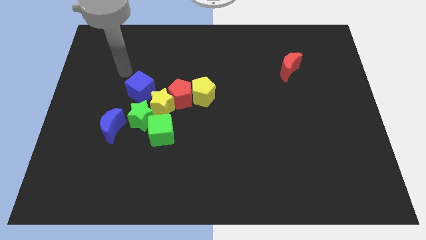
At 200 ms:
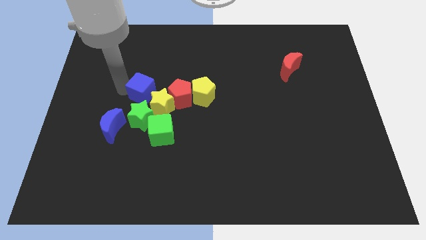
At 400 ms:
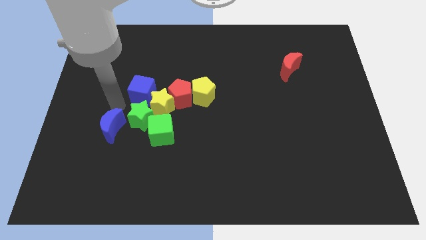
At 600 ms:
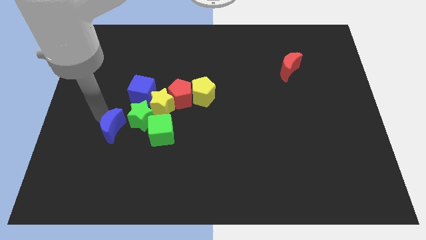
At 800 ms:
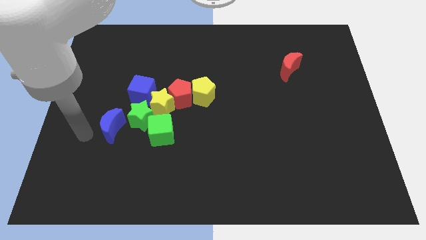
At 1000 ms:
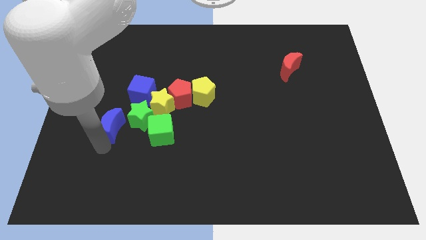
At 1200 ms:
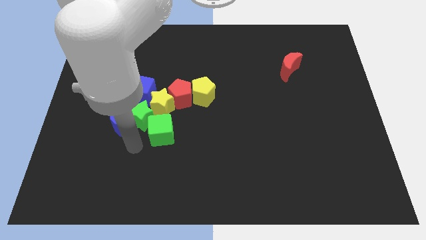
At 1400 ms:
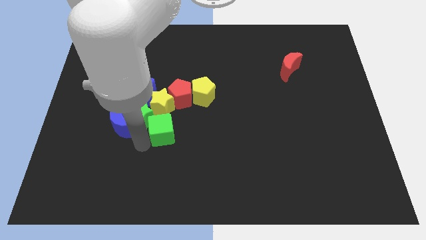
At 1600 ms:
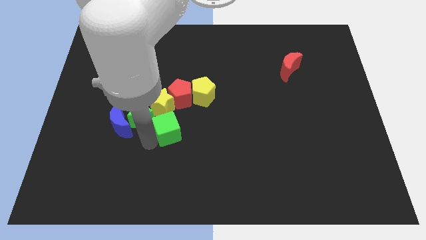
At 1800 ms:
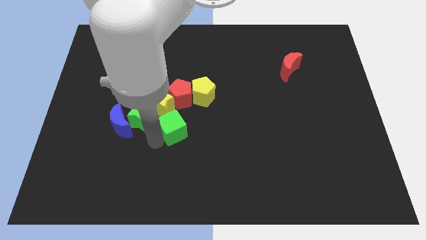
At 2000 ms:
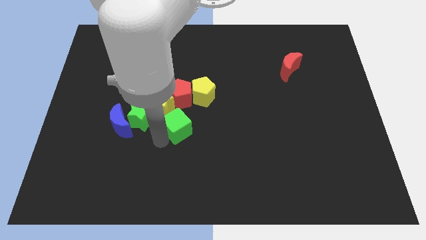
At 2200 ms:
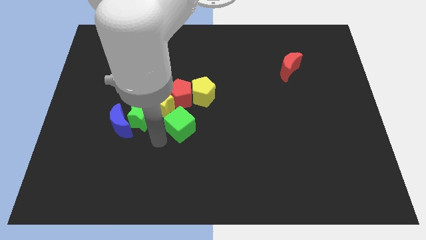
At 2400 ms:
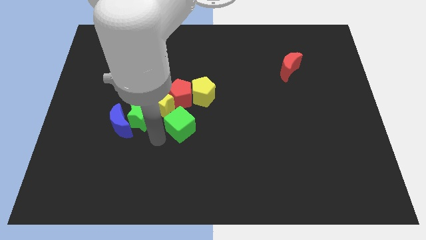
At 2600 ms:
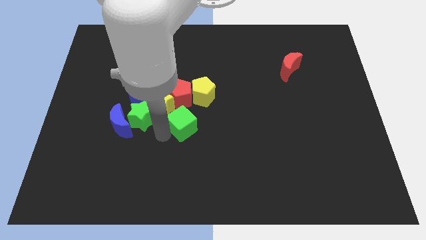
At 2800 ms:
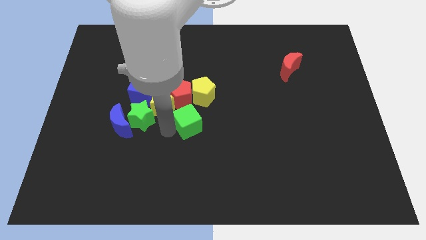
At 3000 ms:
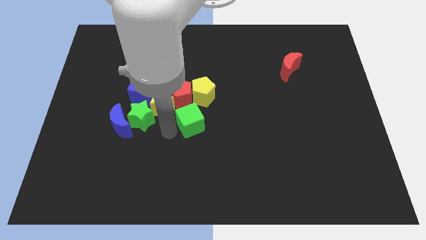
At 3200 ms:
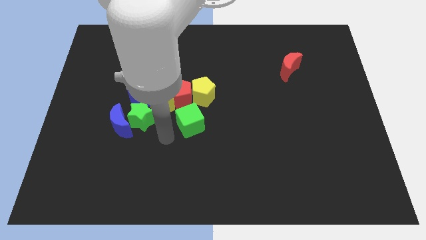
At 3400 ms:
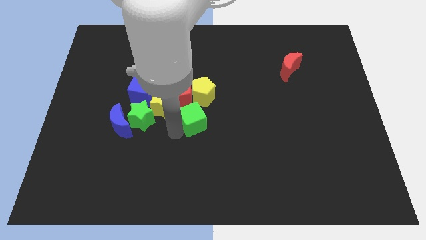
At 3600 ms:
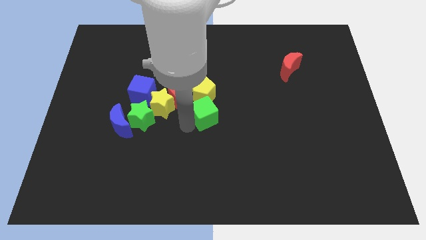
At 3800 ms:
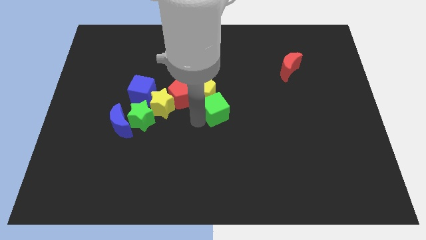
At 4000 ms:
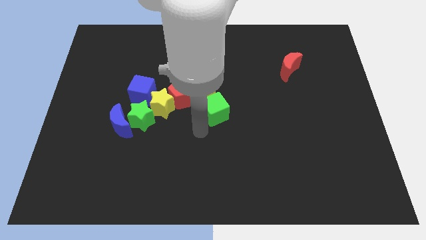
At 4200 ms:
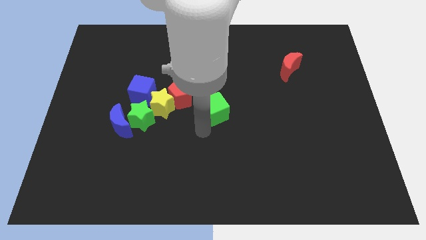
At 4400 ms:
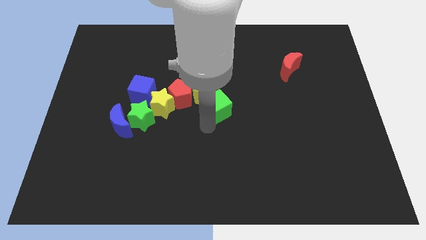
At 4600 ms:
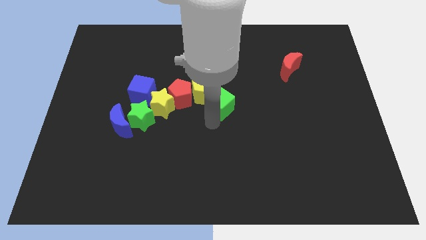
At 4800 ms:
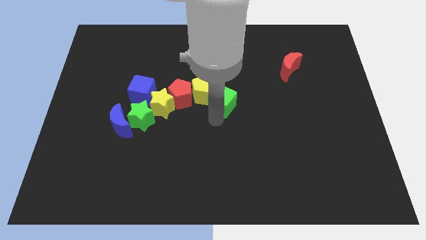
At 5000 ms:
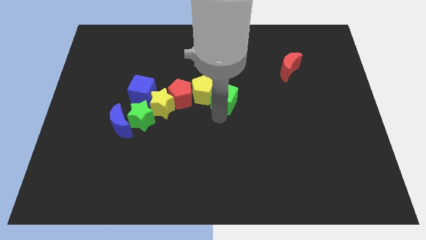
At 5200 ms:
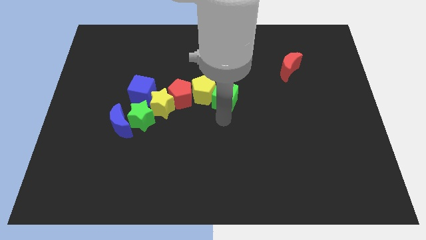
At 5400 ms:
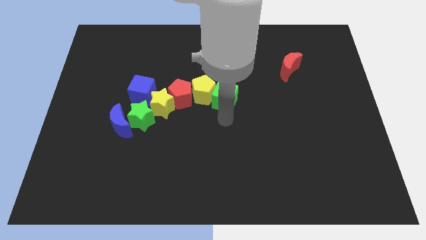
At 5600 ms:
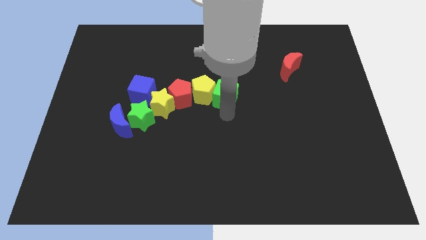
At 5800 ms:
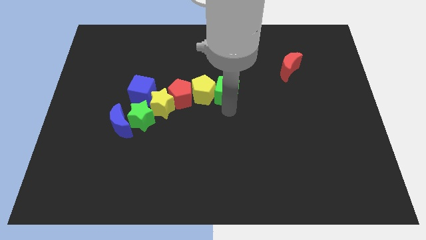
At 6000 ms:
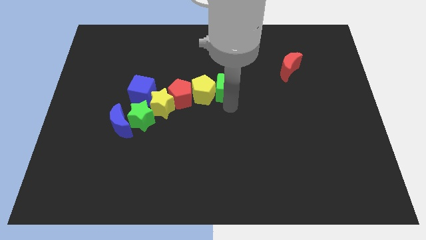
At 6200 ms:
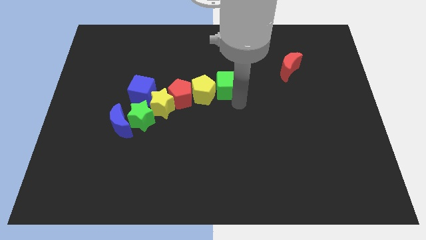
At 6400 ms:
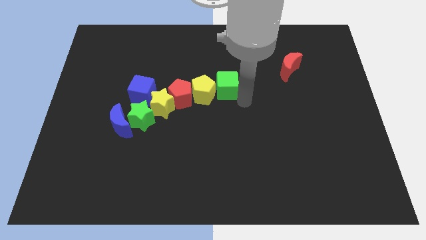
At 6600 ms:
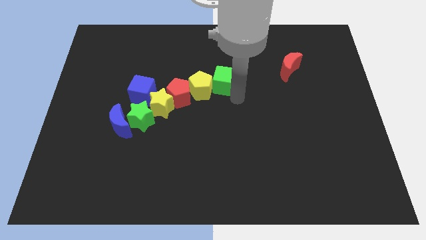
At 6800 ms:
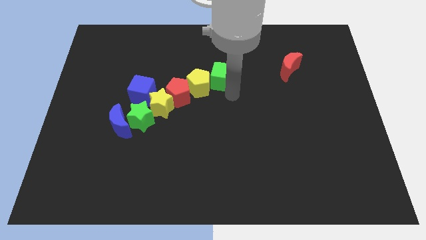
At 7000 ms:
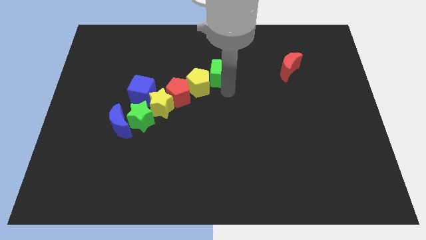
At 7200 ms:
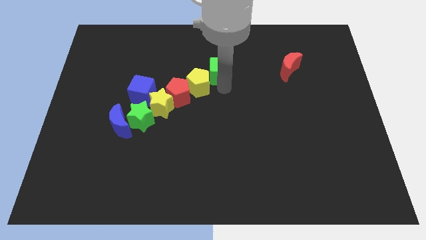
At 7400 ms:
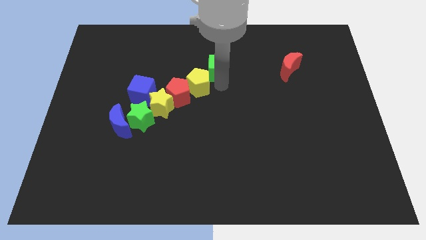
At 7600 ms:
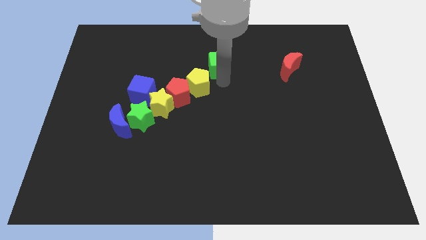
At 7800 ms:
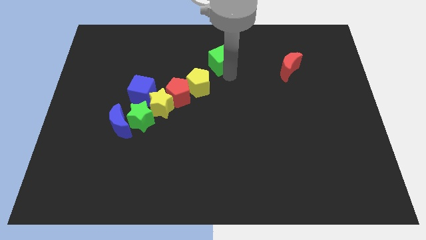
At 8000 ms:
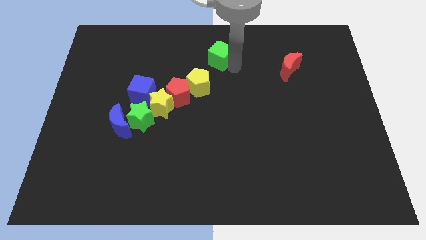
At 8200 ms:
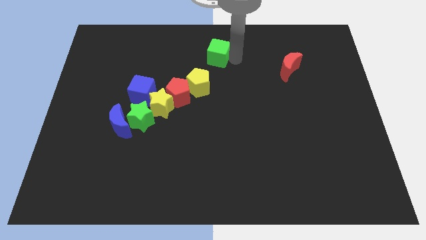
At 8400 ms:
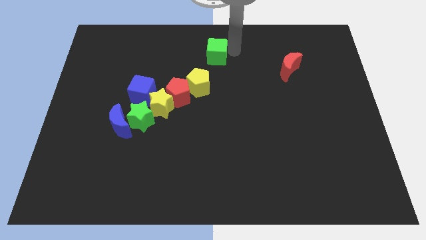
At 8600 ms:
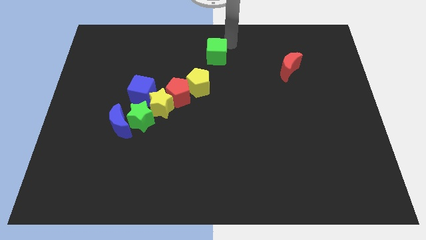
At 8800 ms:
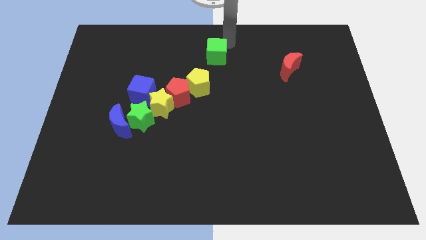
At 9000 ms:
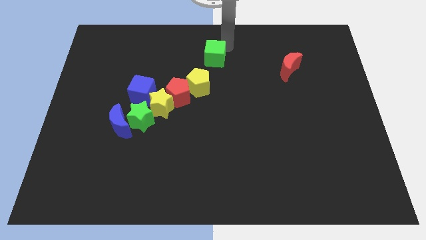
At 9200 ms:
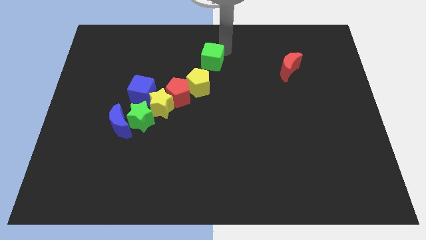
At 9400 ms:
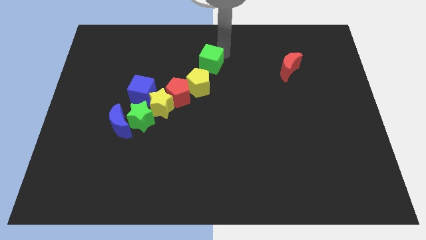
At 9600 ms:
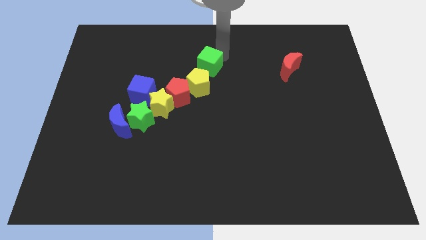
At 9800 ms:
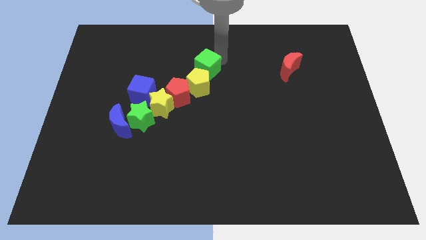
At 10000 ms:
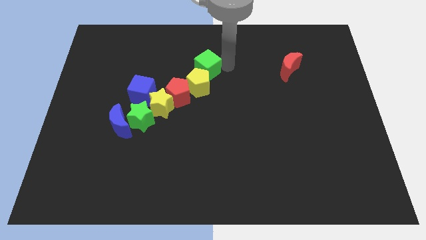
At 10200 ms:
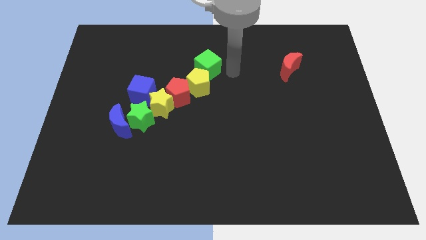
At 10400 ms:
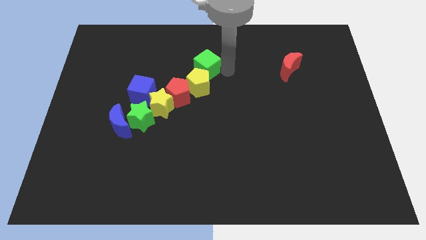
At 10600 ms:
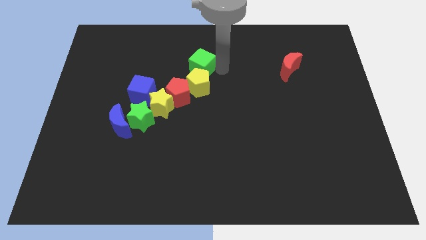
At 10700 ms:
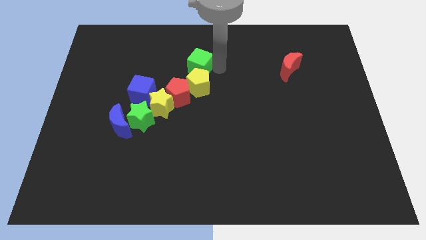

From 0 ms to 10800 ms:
push the green cube to the top side of the red pentagon

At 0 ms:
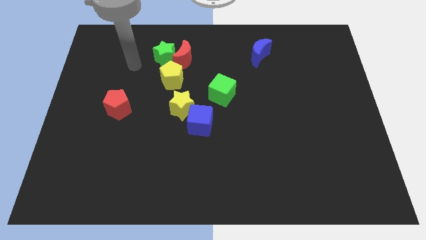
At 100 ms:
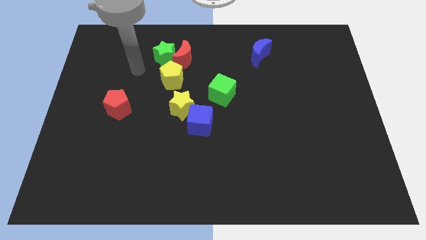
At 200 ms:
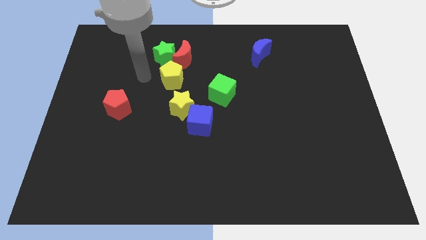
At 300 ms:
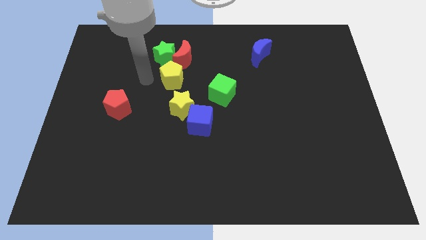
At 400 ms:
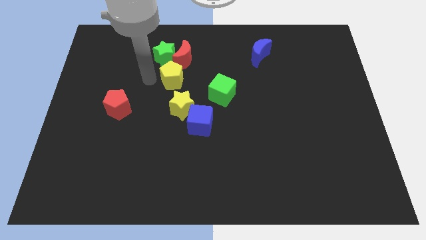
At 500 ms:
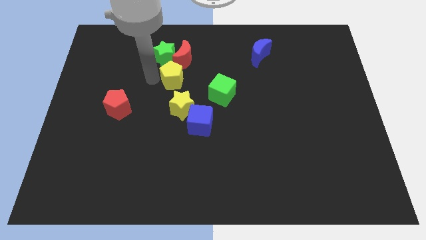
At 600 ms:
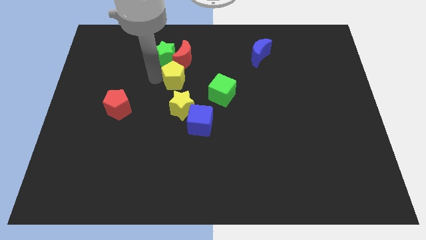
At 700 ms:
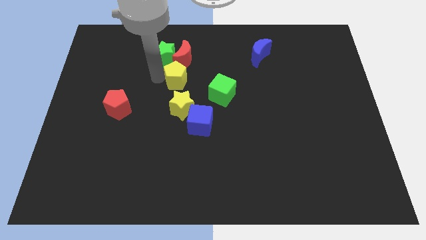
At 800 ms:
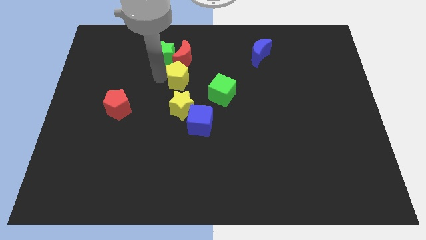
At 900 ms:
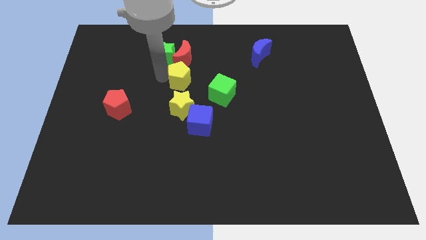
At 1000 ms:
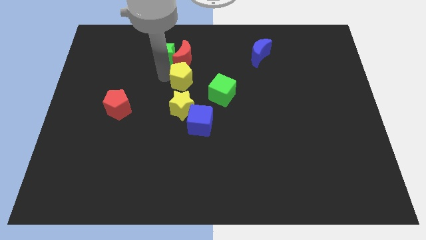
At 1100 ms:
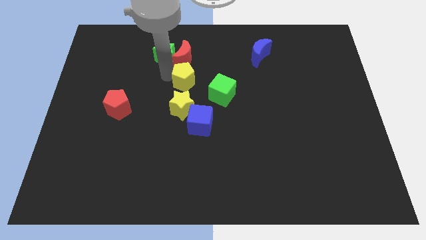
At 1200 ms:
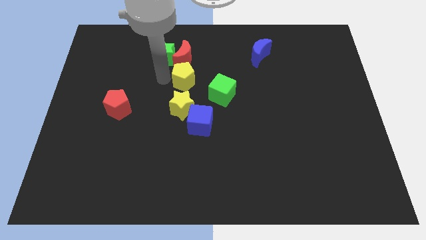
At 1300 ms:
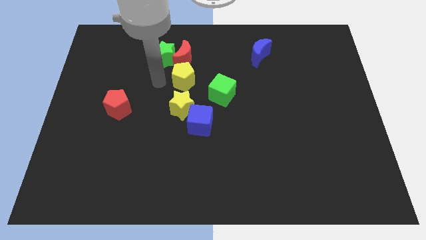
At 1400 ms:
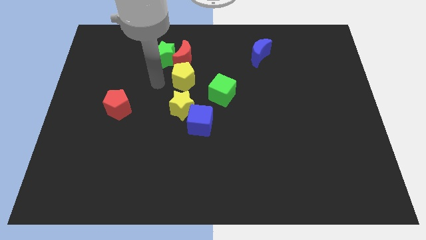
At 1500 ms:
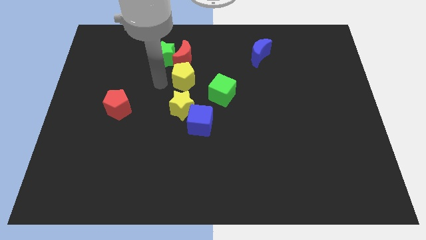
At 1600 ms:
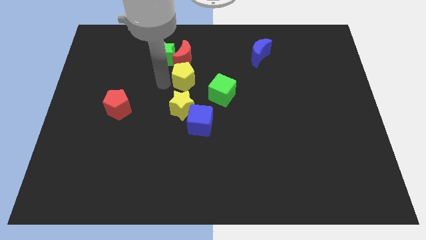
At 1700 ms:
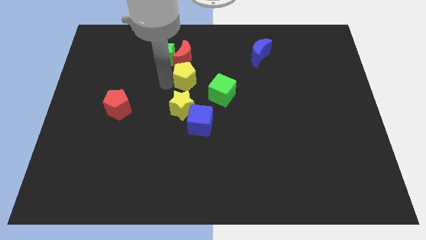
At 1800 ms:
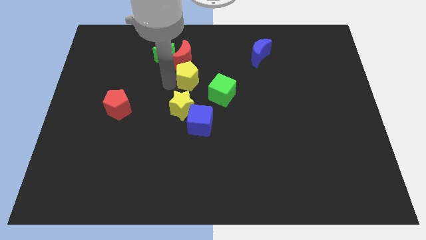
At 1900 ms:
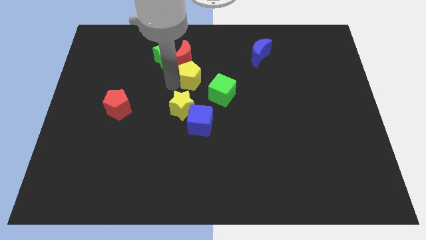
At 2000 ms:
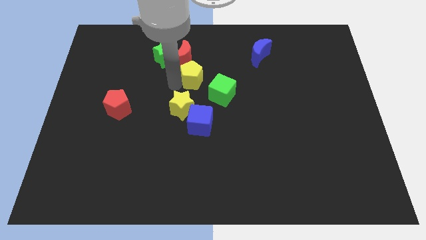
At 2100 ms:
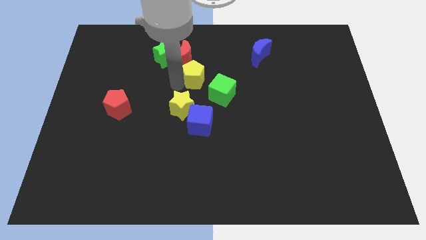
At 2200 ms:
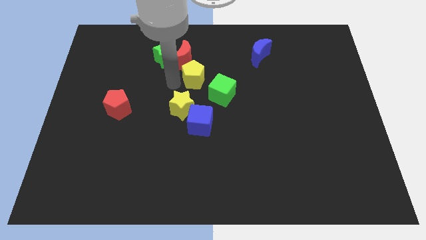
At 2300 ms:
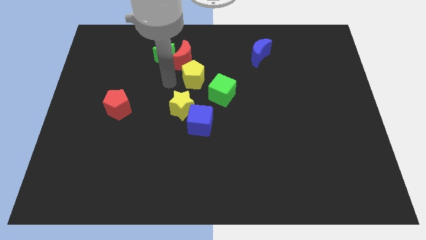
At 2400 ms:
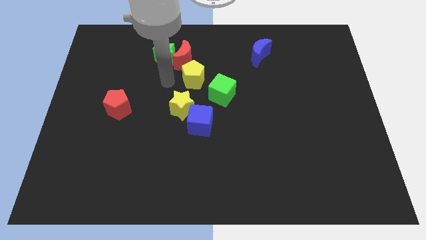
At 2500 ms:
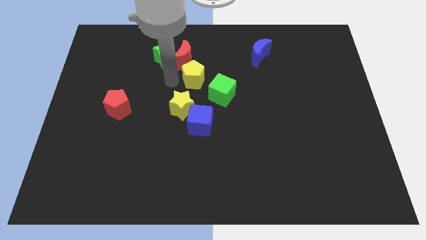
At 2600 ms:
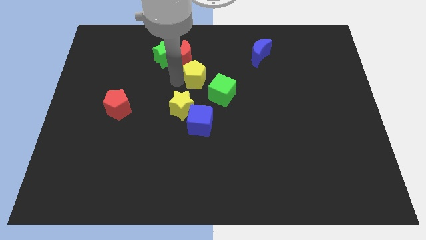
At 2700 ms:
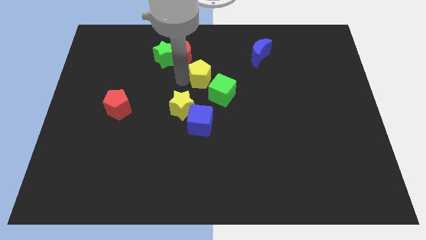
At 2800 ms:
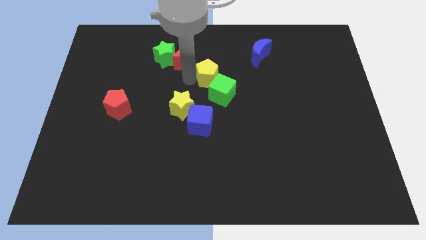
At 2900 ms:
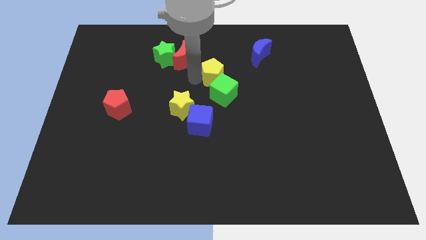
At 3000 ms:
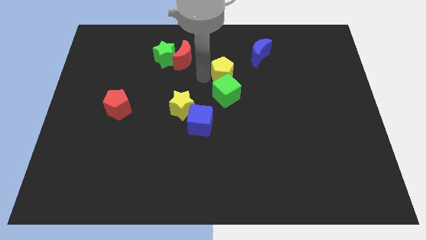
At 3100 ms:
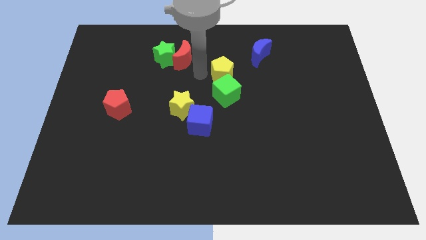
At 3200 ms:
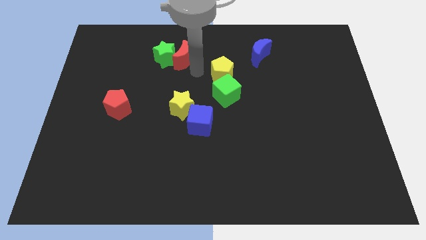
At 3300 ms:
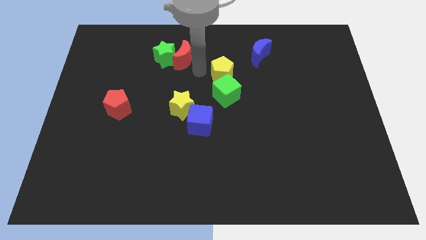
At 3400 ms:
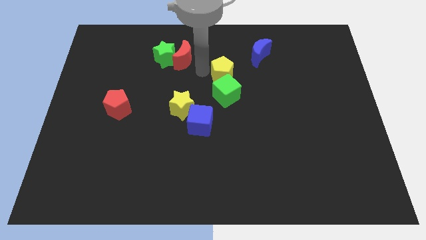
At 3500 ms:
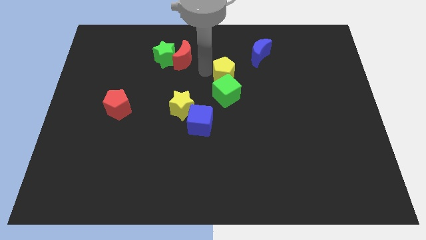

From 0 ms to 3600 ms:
move the yellow pentagon diagonally up and to the right of the green cube
